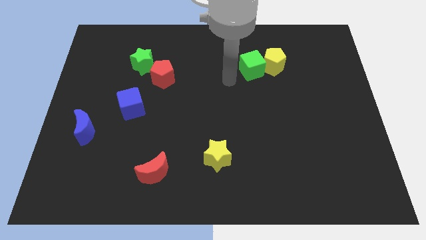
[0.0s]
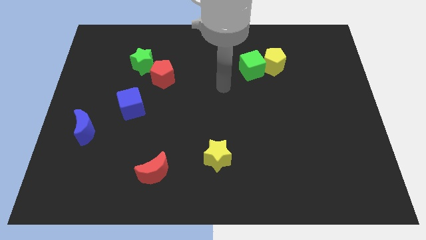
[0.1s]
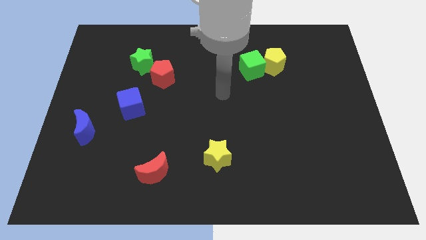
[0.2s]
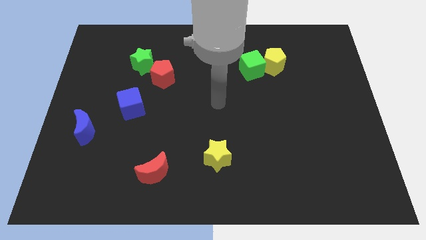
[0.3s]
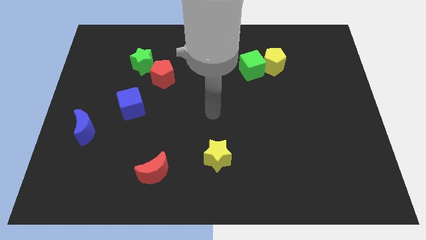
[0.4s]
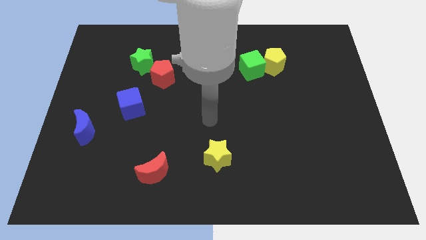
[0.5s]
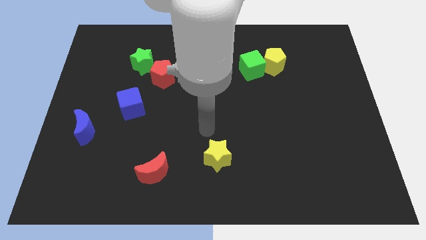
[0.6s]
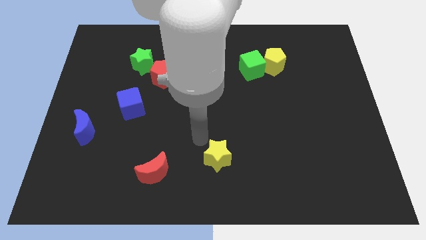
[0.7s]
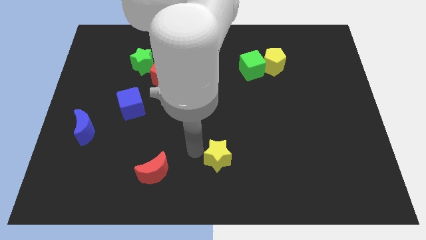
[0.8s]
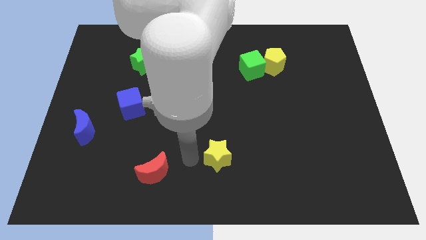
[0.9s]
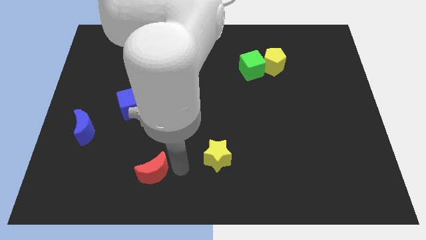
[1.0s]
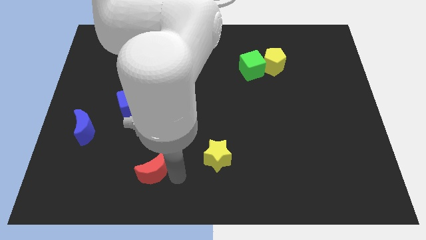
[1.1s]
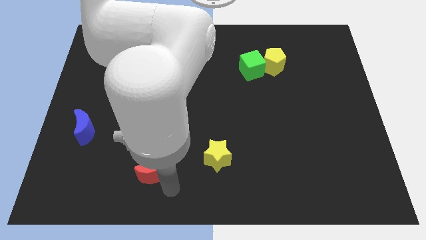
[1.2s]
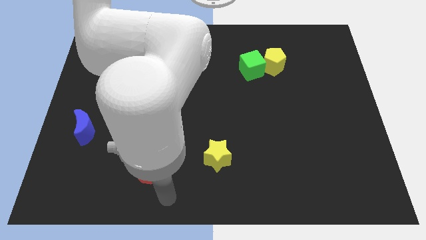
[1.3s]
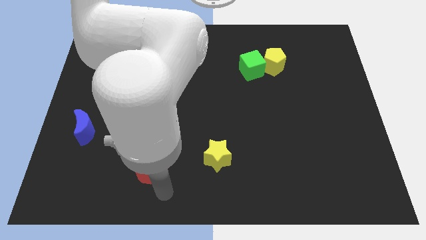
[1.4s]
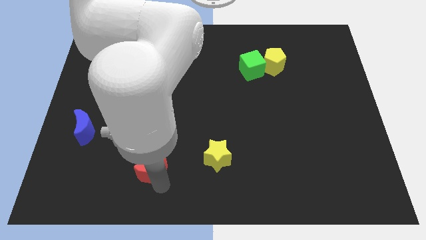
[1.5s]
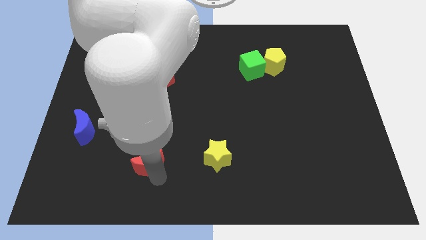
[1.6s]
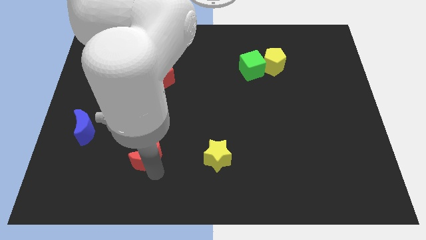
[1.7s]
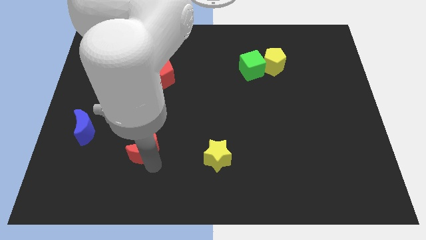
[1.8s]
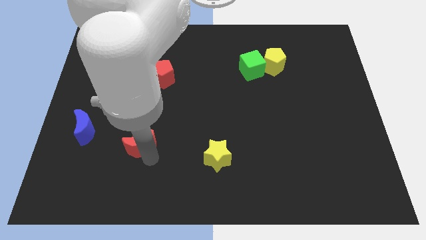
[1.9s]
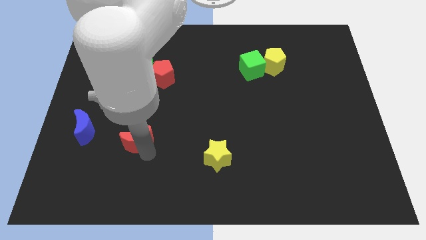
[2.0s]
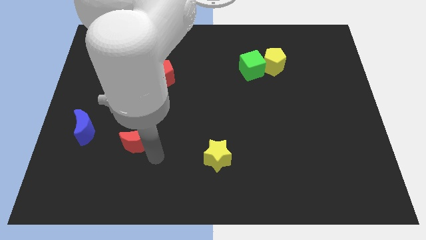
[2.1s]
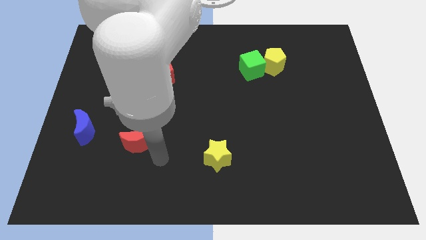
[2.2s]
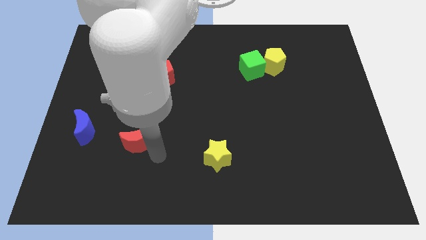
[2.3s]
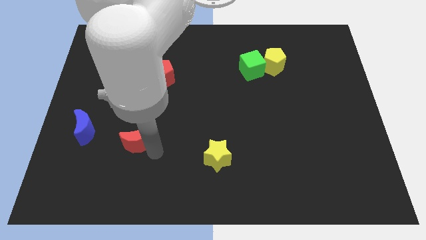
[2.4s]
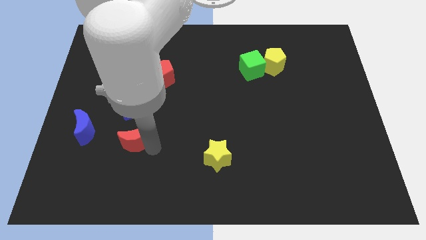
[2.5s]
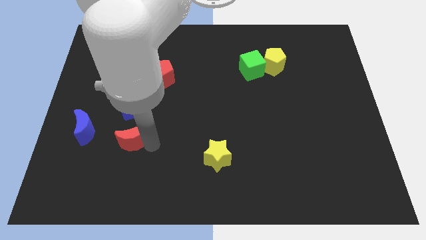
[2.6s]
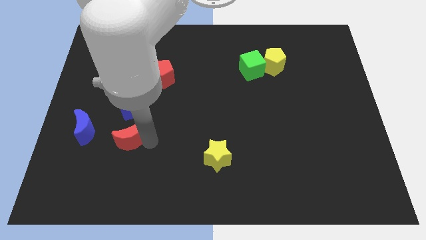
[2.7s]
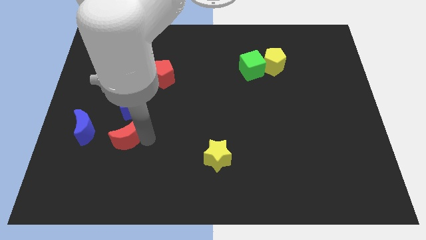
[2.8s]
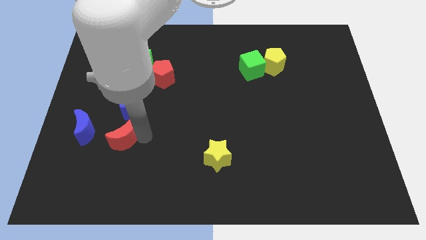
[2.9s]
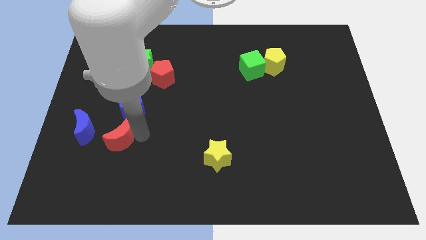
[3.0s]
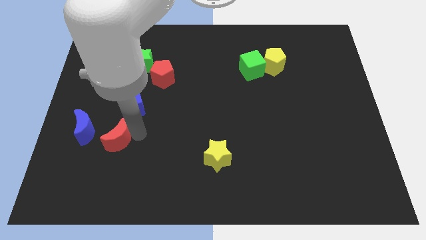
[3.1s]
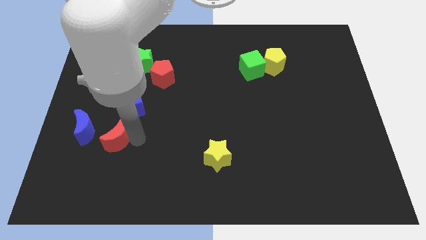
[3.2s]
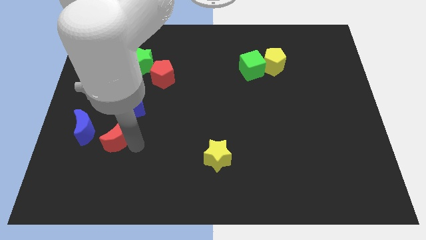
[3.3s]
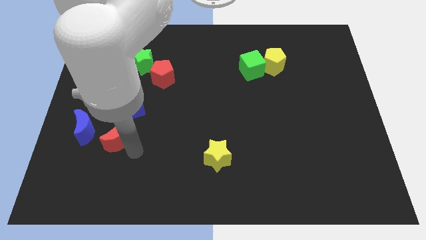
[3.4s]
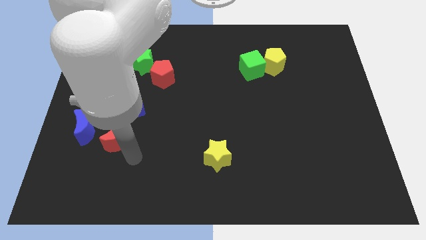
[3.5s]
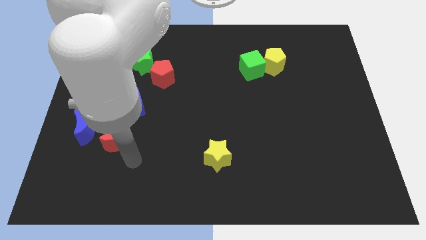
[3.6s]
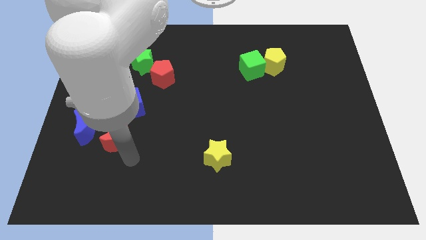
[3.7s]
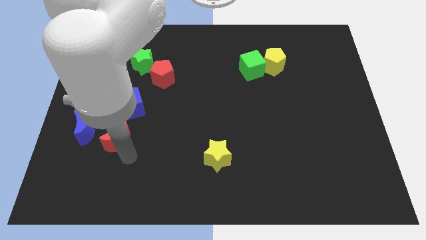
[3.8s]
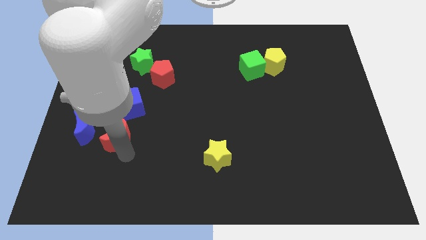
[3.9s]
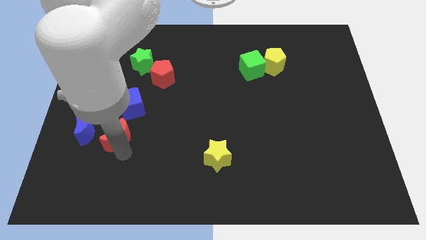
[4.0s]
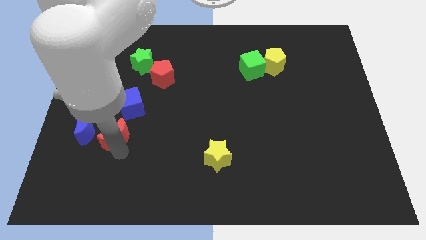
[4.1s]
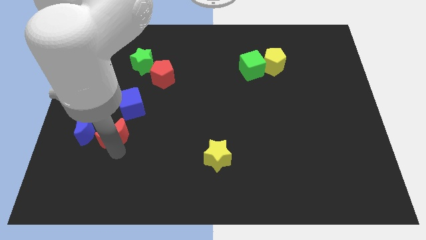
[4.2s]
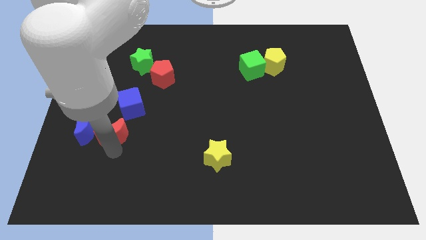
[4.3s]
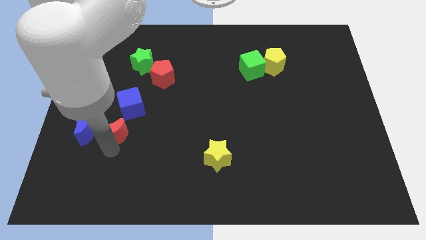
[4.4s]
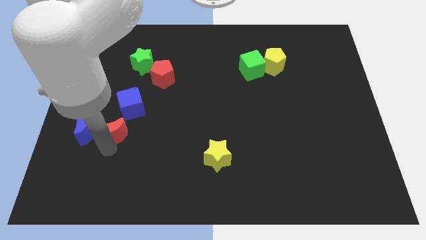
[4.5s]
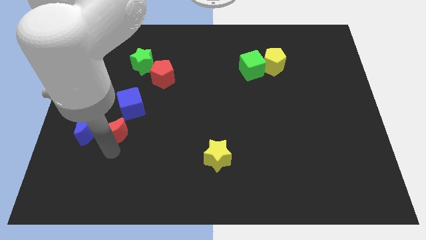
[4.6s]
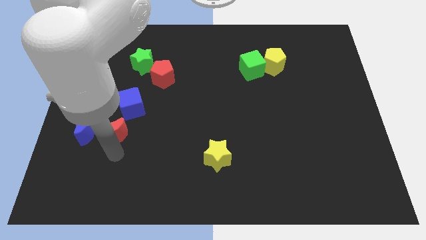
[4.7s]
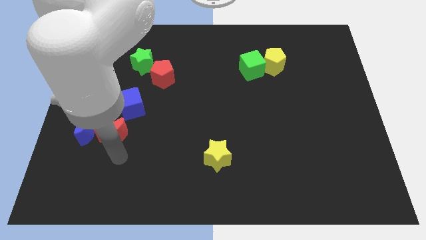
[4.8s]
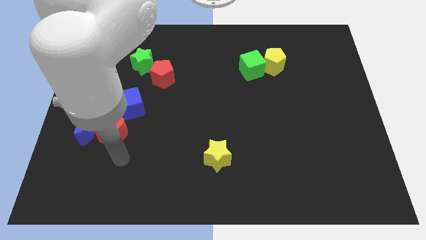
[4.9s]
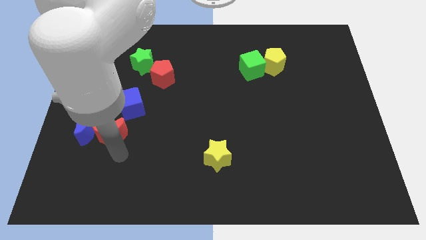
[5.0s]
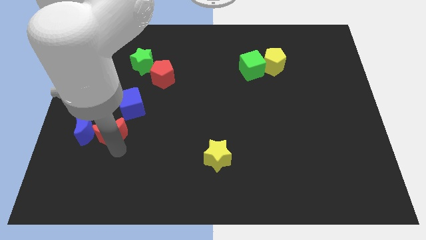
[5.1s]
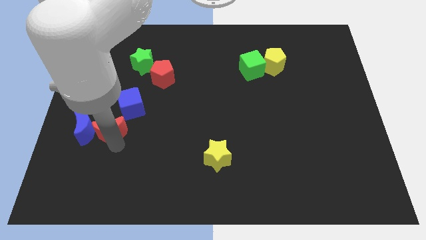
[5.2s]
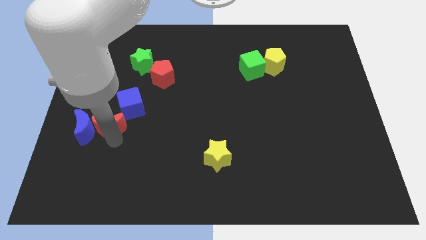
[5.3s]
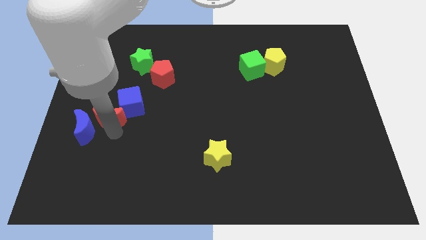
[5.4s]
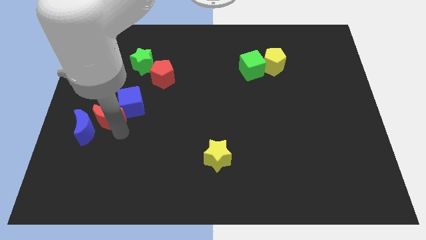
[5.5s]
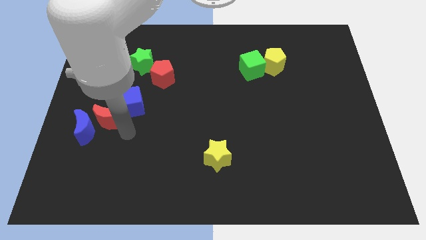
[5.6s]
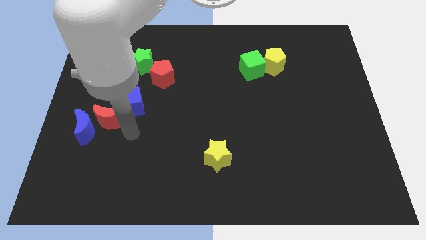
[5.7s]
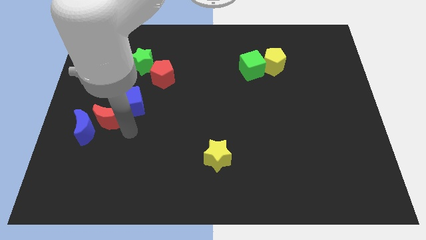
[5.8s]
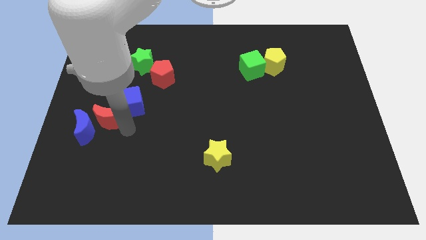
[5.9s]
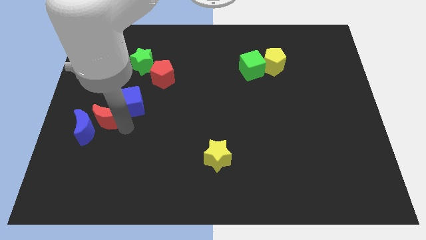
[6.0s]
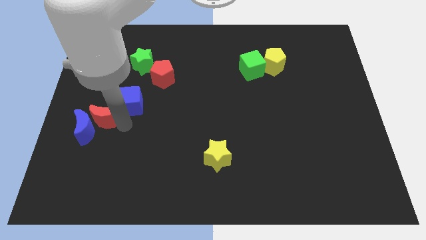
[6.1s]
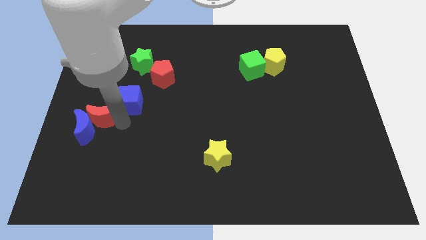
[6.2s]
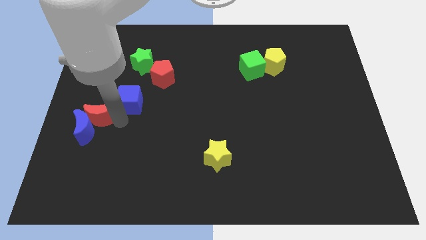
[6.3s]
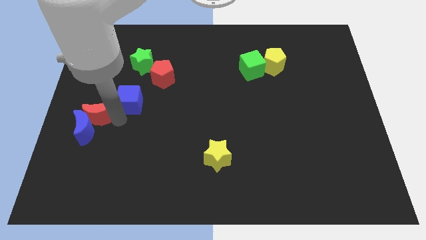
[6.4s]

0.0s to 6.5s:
move the red moon to the center left
